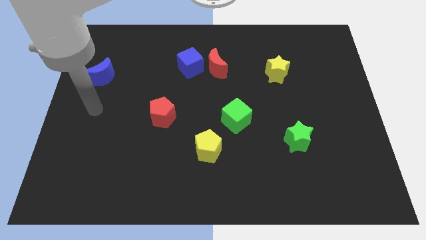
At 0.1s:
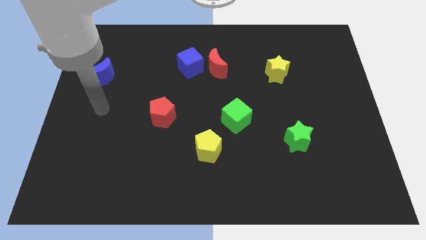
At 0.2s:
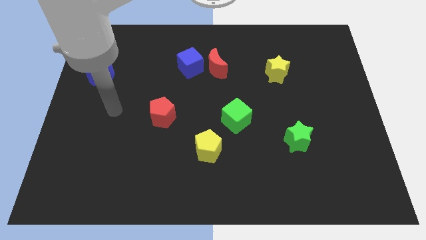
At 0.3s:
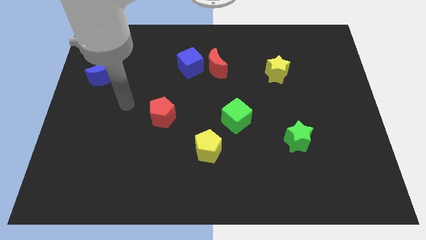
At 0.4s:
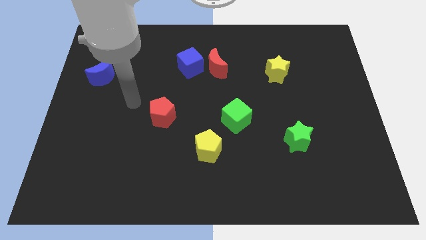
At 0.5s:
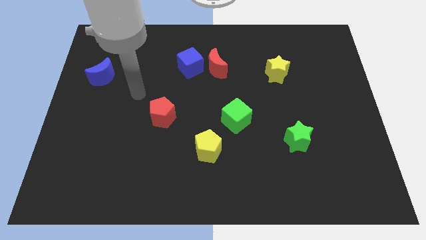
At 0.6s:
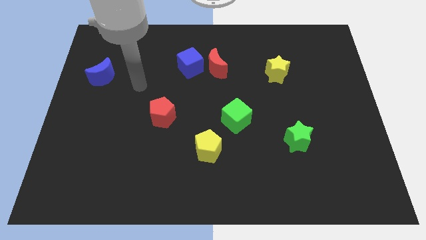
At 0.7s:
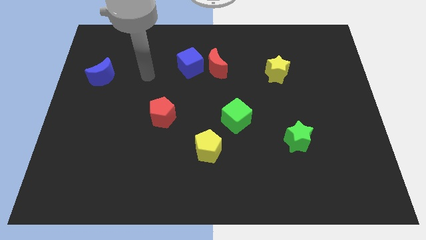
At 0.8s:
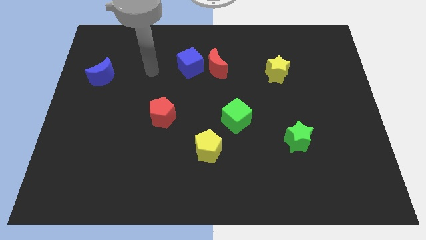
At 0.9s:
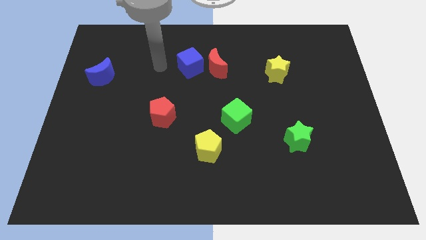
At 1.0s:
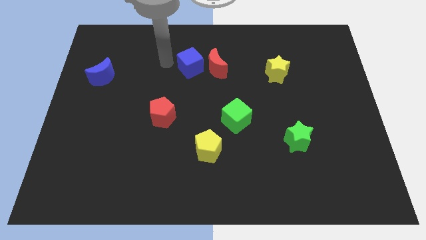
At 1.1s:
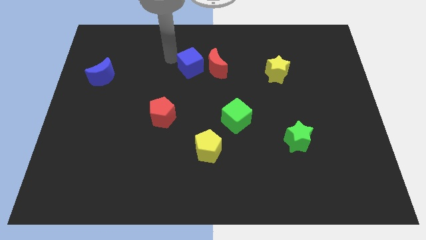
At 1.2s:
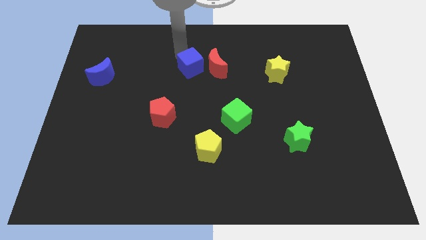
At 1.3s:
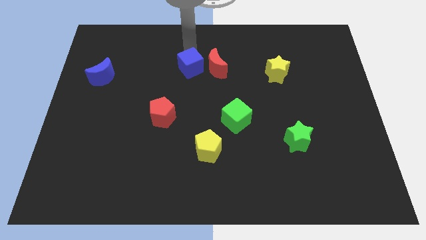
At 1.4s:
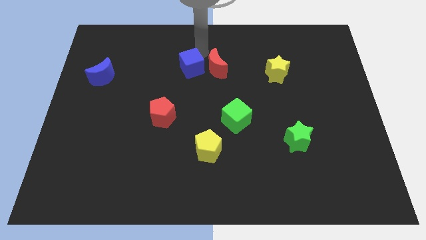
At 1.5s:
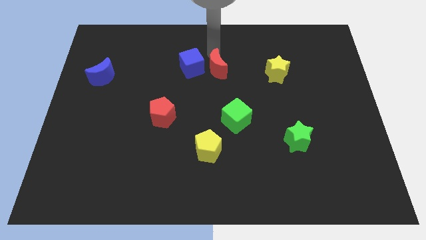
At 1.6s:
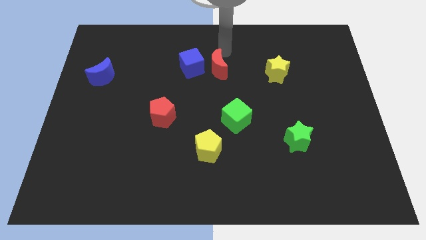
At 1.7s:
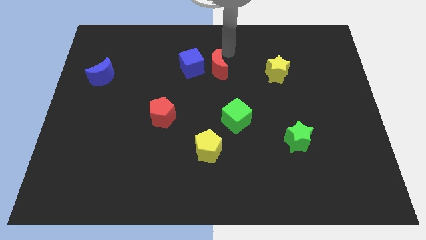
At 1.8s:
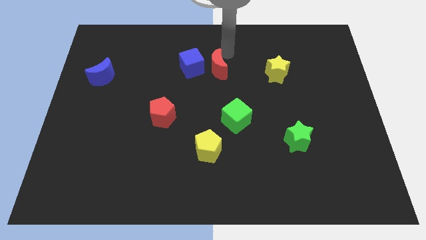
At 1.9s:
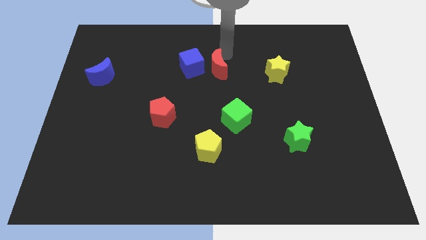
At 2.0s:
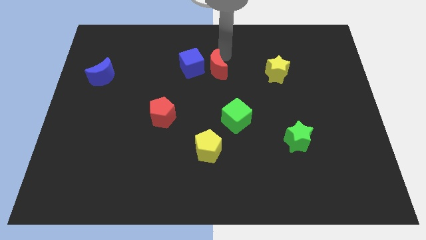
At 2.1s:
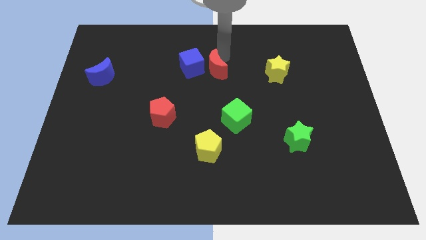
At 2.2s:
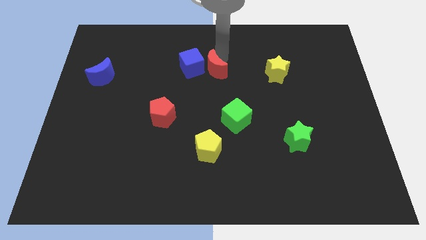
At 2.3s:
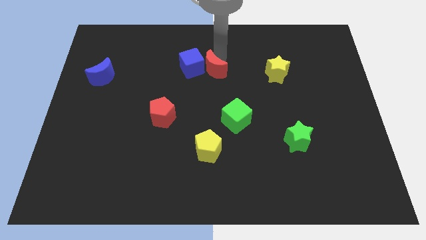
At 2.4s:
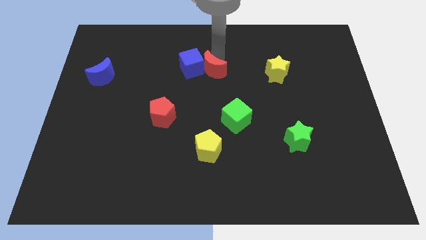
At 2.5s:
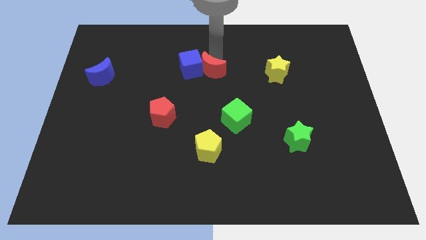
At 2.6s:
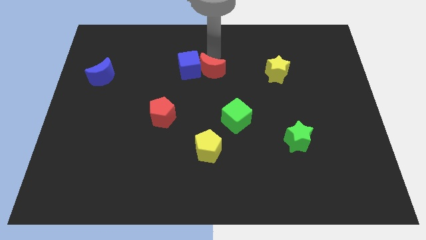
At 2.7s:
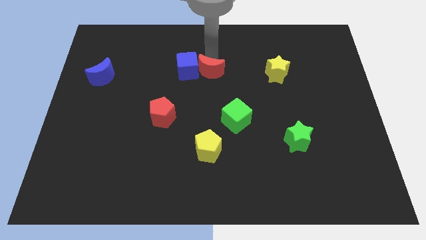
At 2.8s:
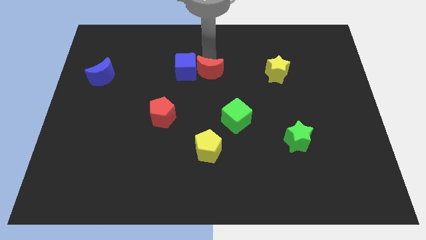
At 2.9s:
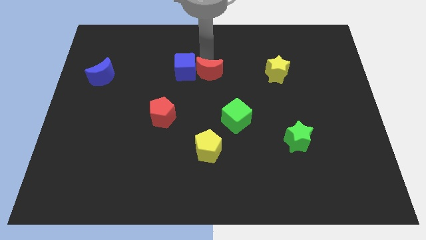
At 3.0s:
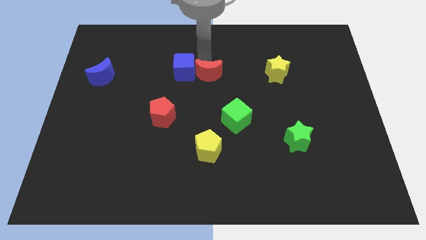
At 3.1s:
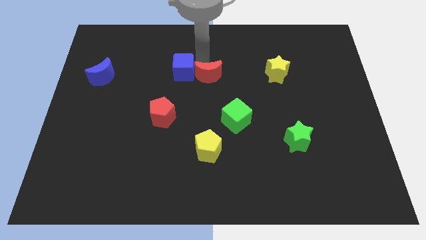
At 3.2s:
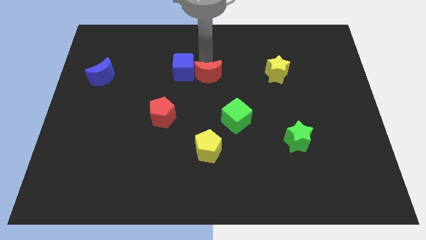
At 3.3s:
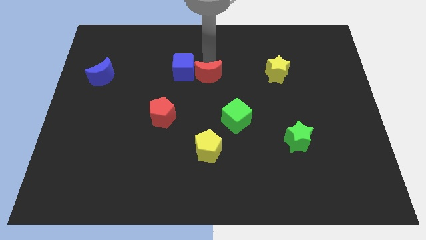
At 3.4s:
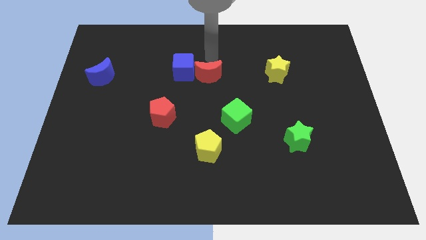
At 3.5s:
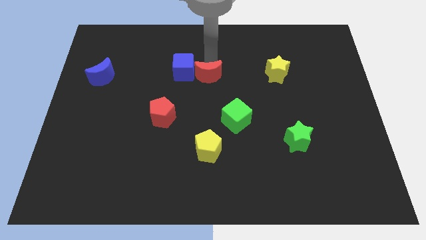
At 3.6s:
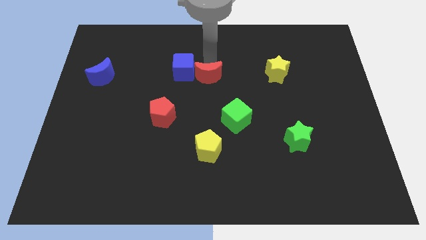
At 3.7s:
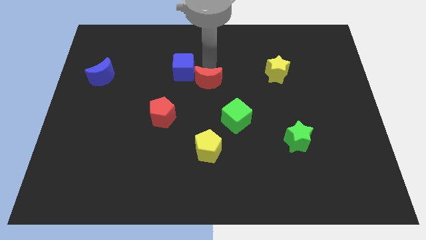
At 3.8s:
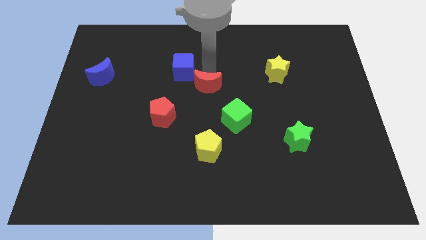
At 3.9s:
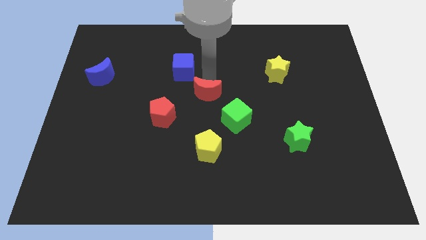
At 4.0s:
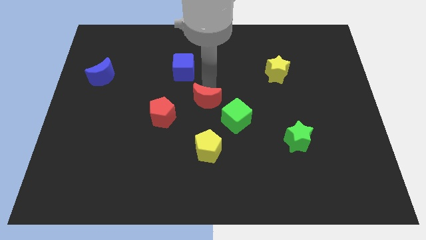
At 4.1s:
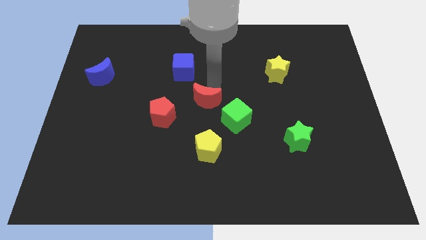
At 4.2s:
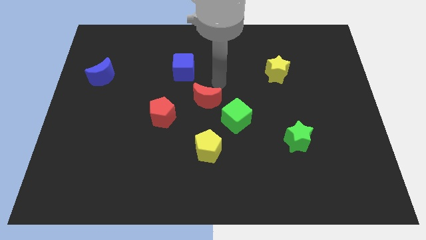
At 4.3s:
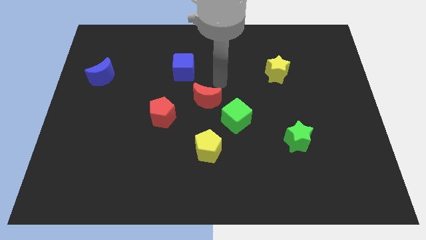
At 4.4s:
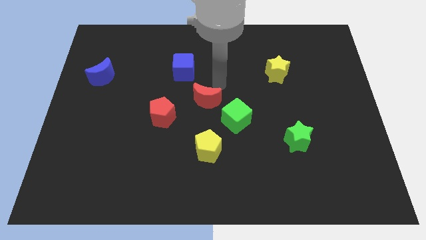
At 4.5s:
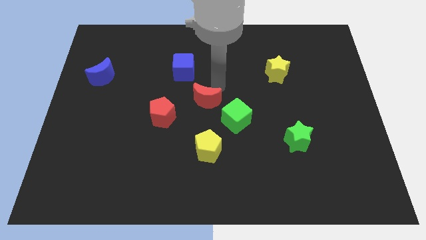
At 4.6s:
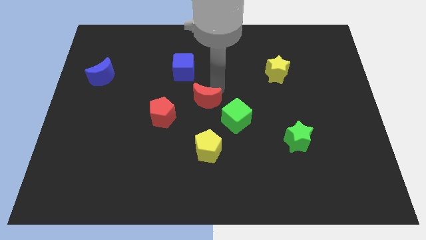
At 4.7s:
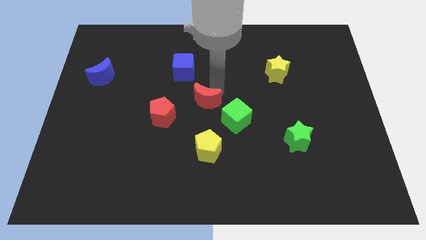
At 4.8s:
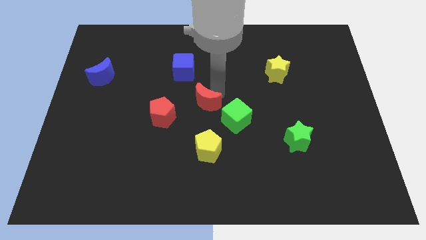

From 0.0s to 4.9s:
move the red moon to the left of the green cube

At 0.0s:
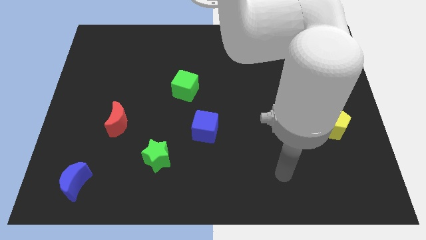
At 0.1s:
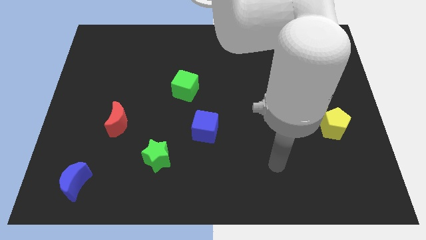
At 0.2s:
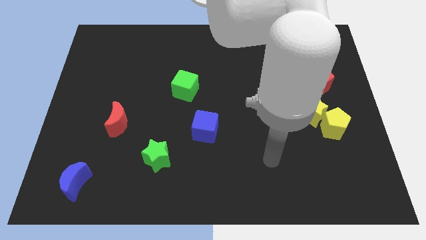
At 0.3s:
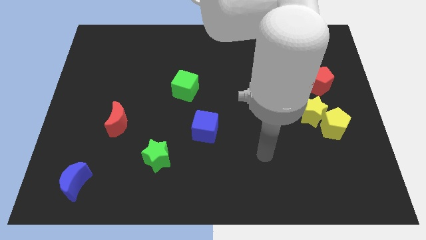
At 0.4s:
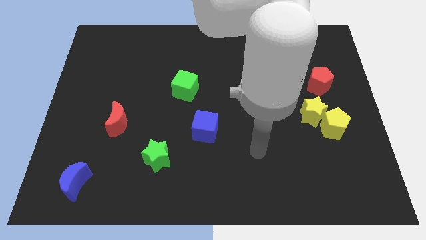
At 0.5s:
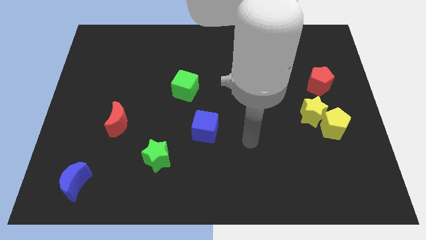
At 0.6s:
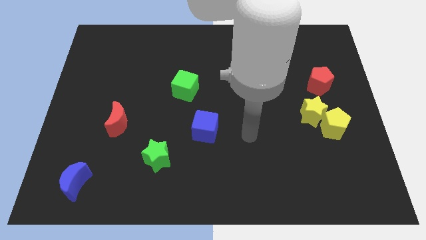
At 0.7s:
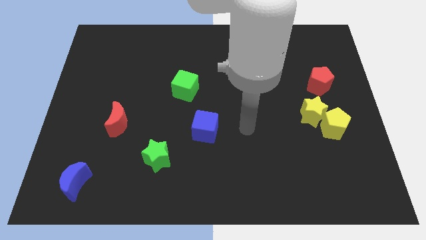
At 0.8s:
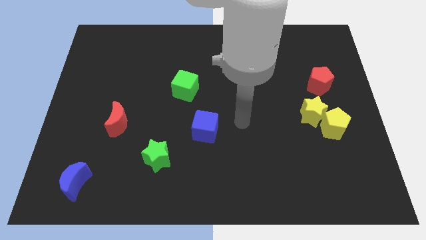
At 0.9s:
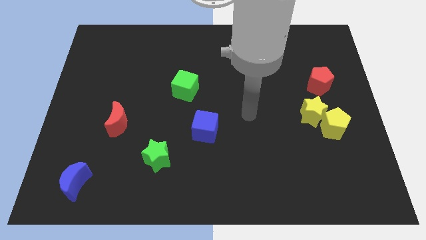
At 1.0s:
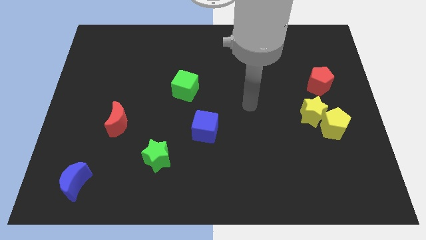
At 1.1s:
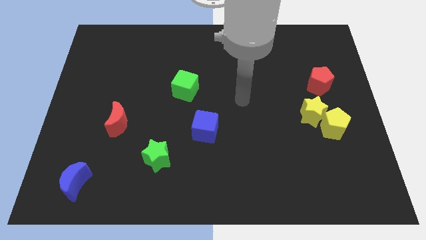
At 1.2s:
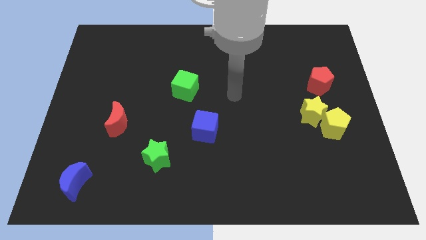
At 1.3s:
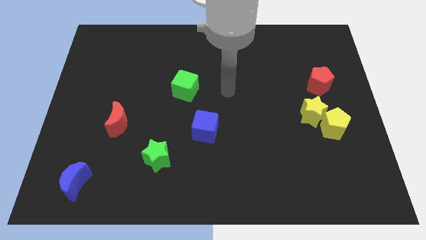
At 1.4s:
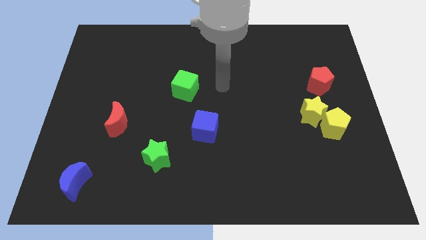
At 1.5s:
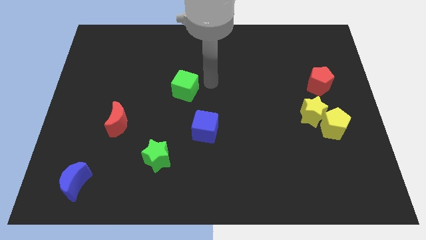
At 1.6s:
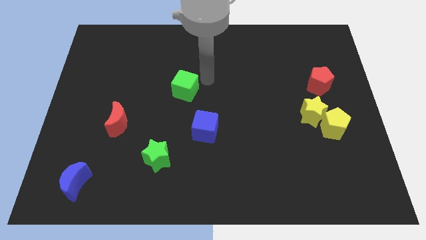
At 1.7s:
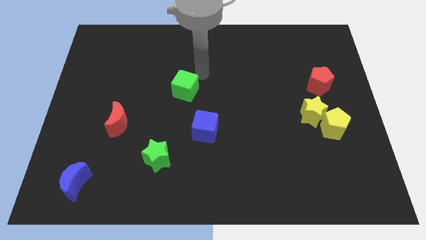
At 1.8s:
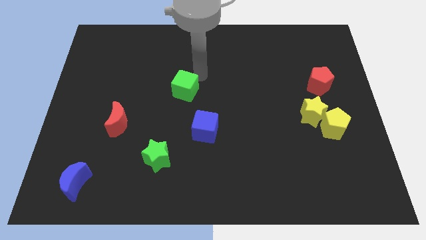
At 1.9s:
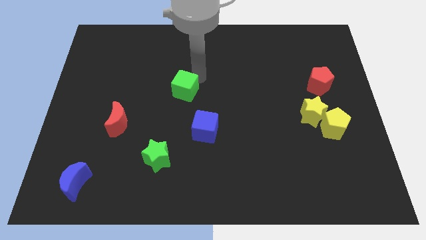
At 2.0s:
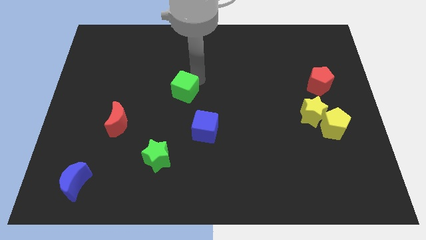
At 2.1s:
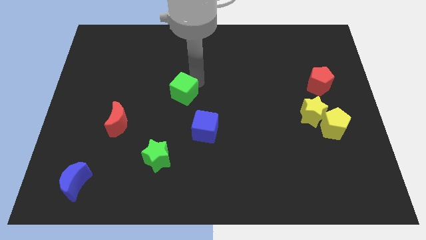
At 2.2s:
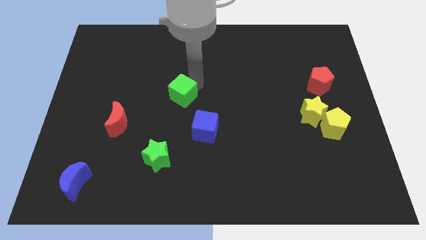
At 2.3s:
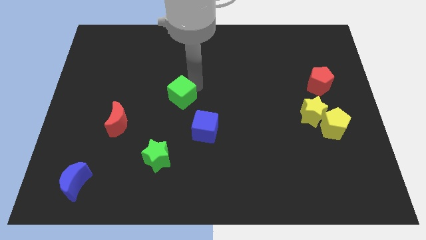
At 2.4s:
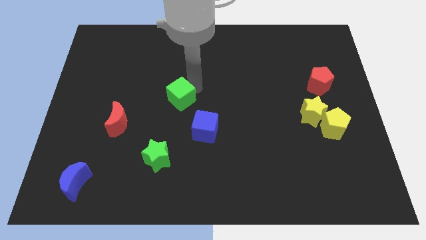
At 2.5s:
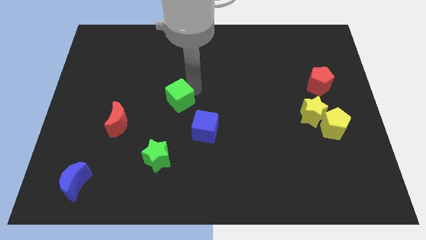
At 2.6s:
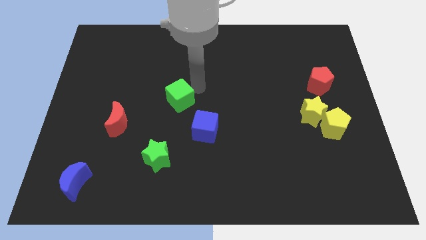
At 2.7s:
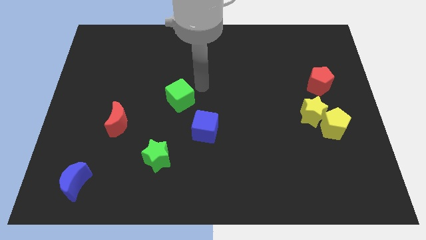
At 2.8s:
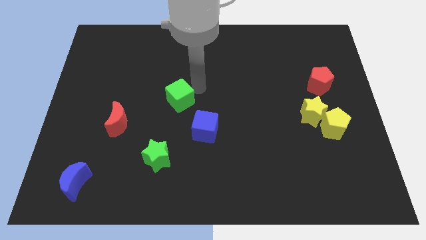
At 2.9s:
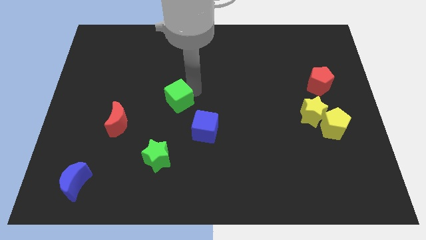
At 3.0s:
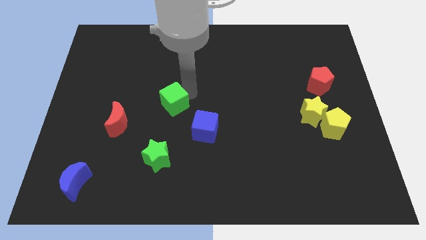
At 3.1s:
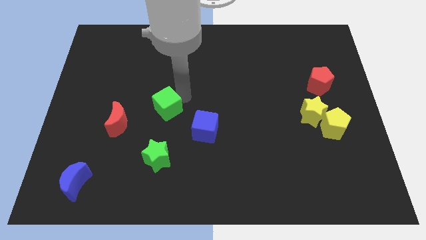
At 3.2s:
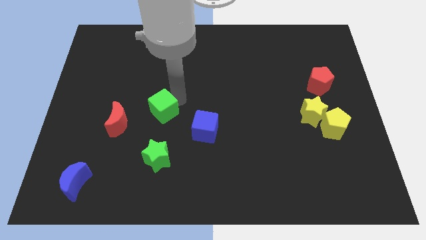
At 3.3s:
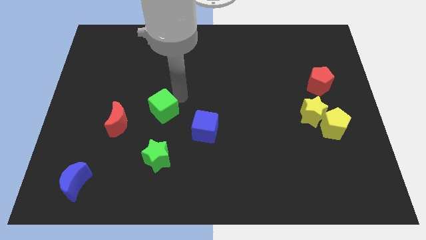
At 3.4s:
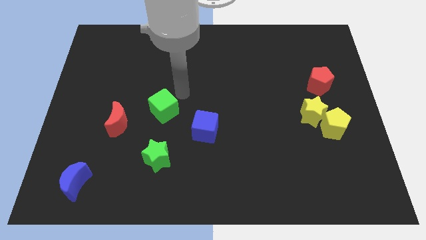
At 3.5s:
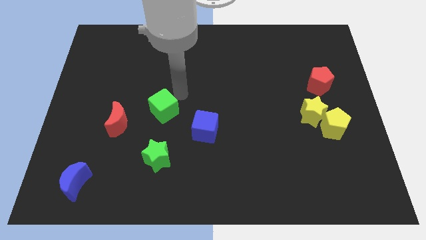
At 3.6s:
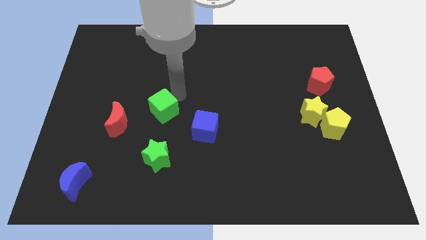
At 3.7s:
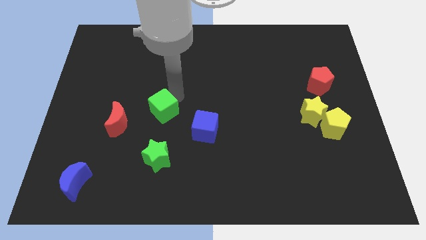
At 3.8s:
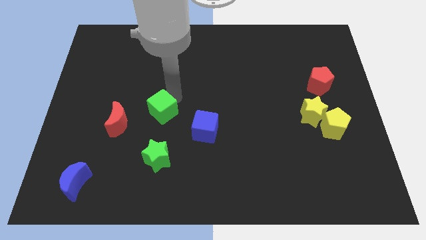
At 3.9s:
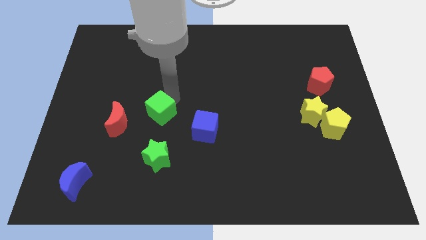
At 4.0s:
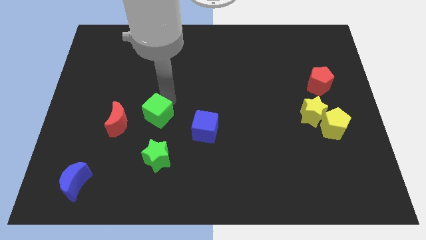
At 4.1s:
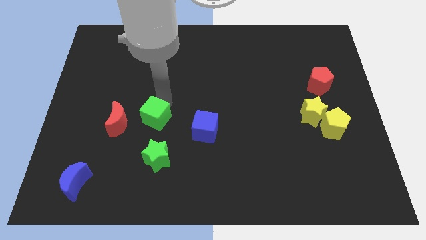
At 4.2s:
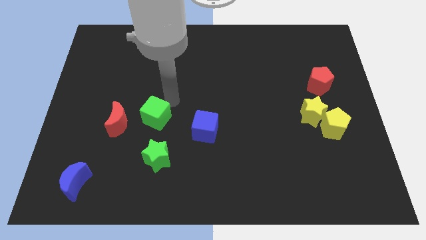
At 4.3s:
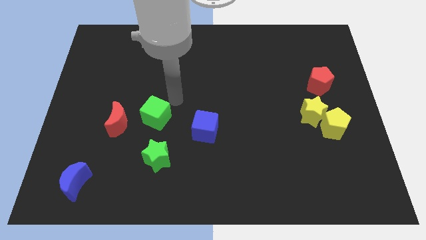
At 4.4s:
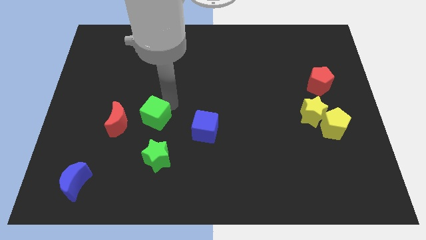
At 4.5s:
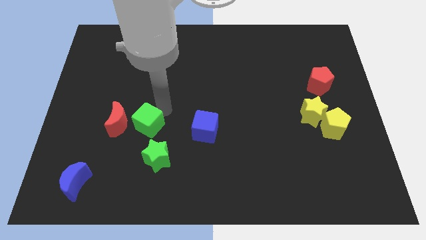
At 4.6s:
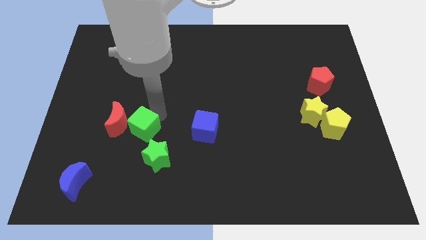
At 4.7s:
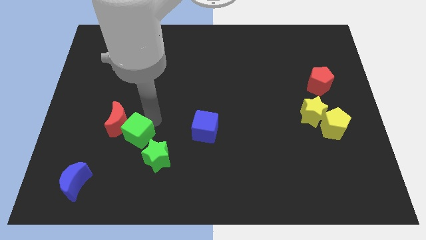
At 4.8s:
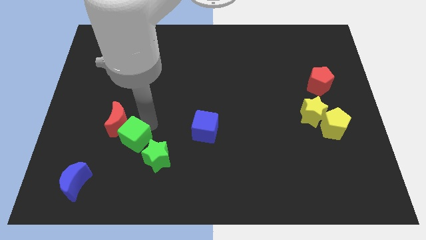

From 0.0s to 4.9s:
push the green cube to the bottom side of the red moon
